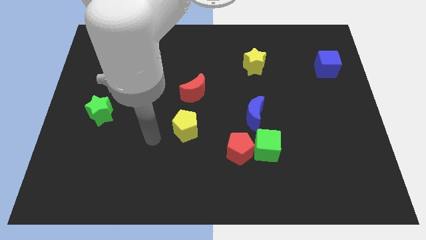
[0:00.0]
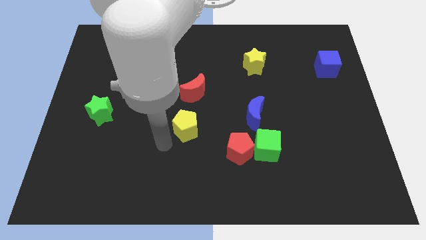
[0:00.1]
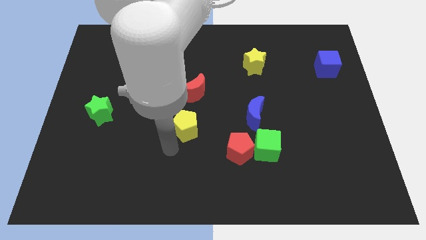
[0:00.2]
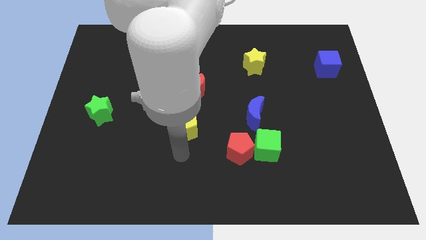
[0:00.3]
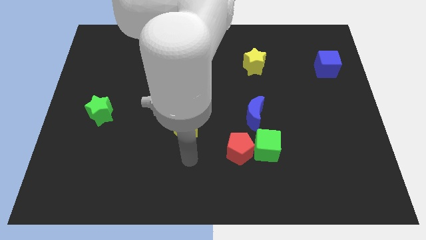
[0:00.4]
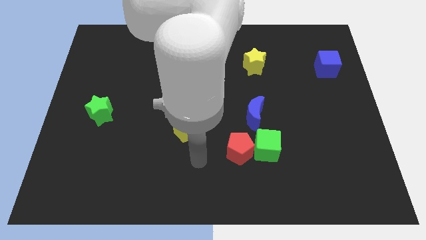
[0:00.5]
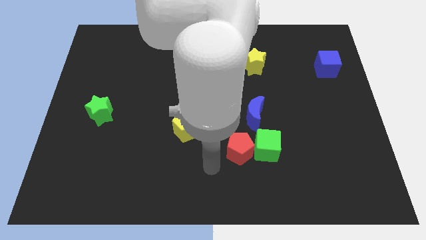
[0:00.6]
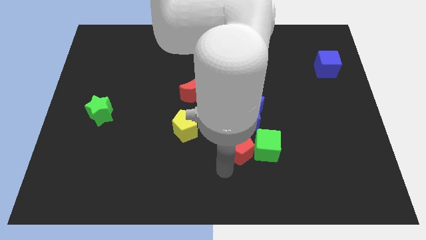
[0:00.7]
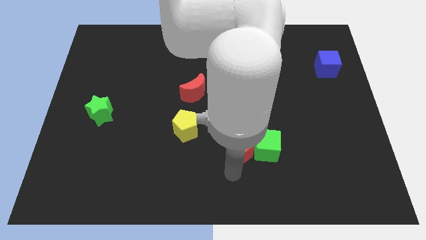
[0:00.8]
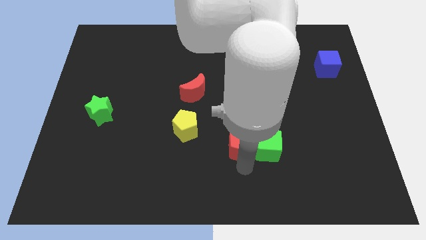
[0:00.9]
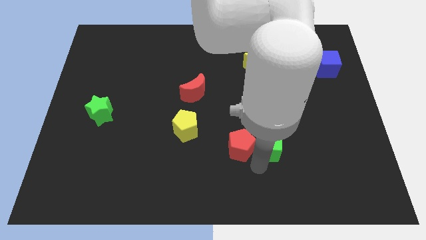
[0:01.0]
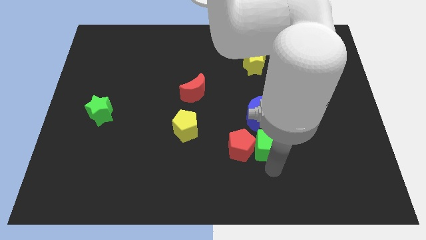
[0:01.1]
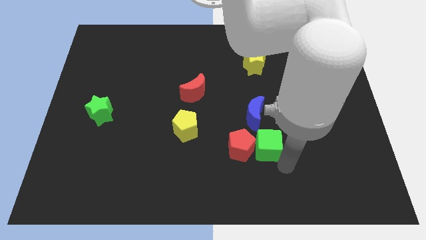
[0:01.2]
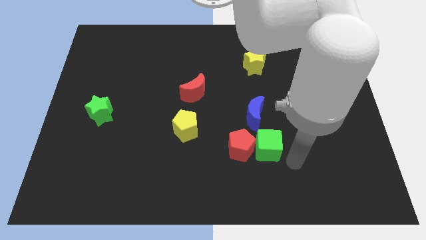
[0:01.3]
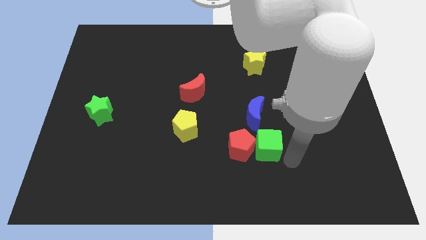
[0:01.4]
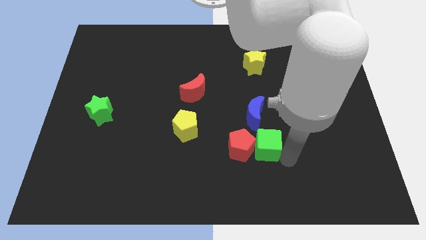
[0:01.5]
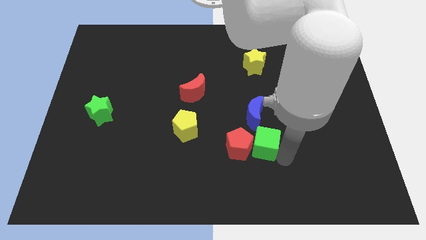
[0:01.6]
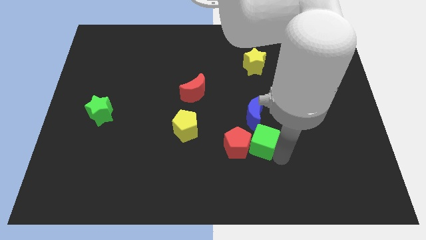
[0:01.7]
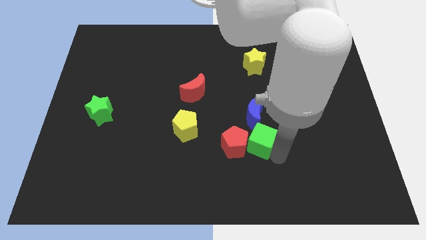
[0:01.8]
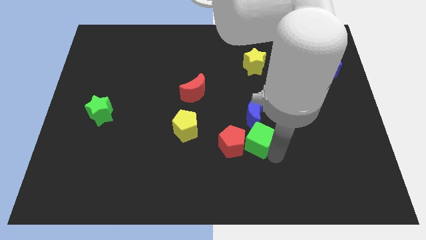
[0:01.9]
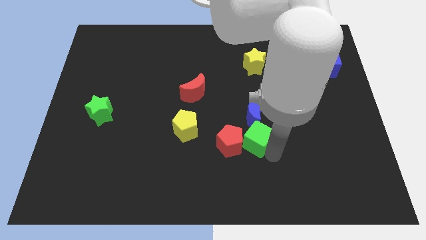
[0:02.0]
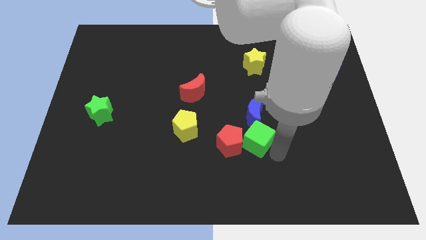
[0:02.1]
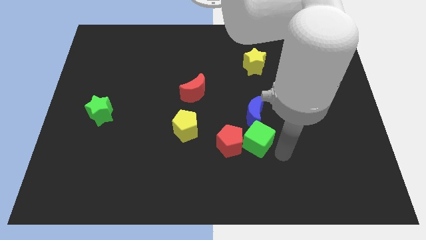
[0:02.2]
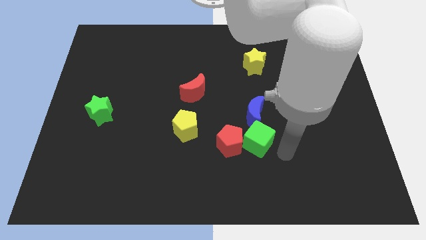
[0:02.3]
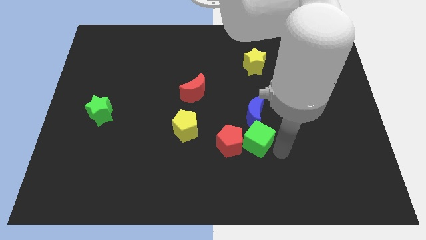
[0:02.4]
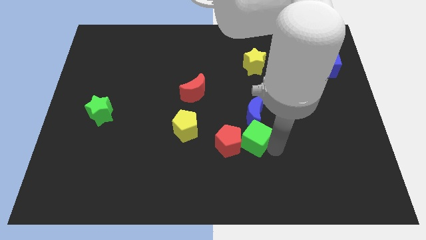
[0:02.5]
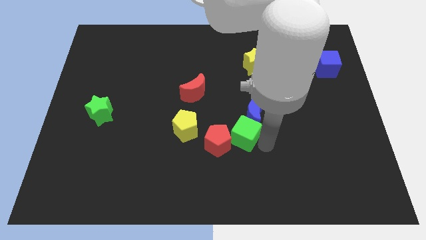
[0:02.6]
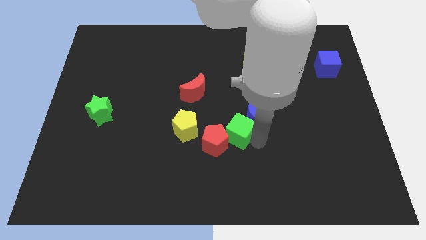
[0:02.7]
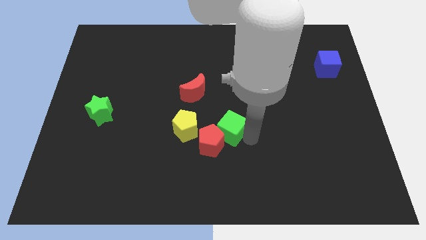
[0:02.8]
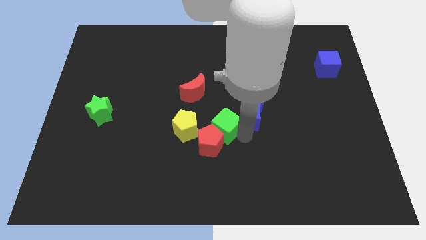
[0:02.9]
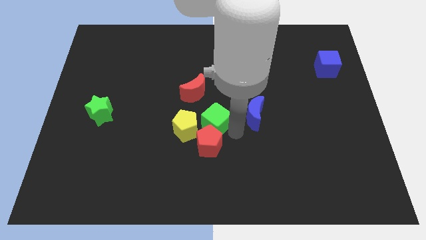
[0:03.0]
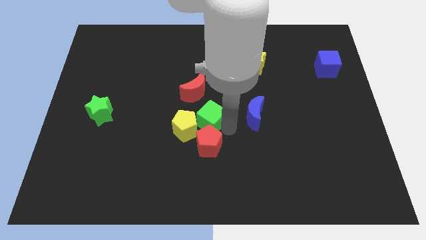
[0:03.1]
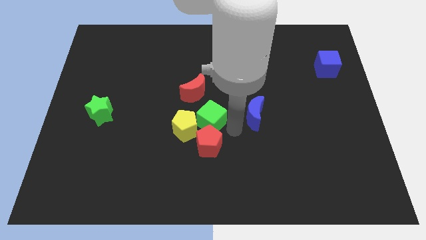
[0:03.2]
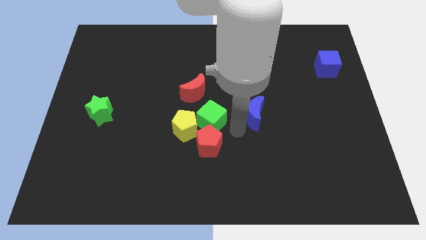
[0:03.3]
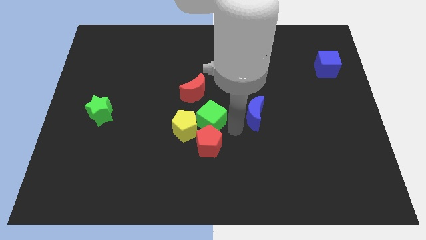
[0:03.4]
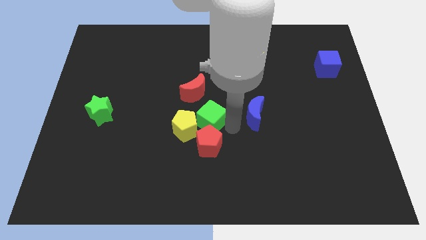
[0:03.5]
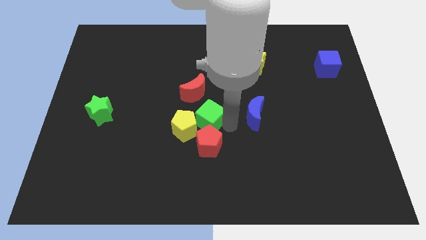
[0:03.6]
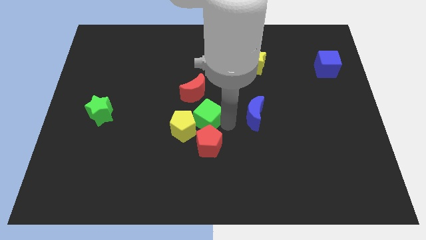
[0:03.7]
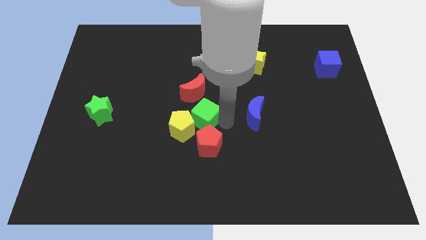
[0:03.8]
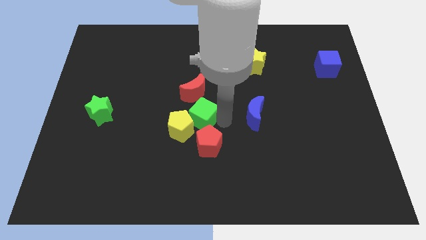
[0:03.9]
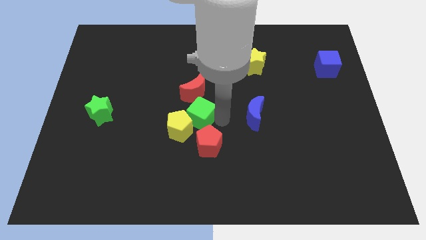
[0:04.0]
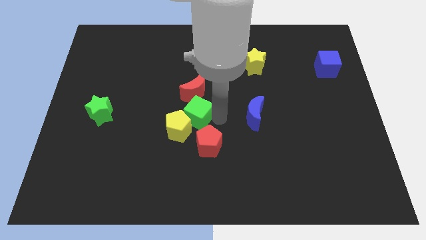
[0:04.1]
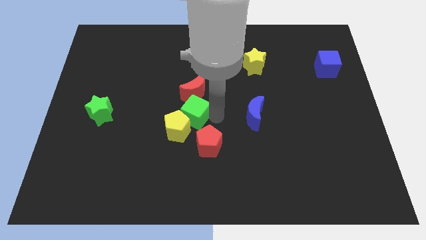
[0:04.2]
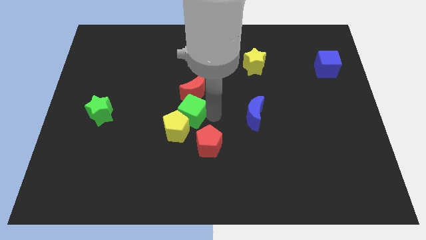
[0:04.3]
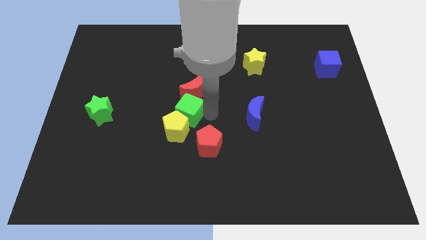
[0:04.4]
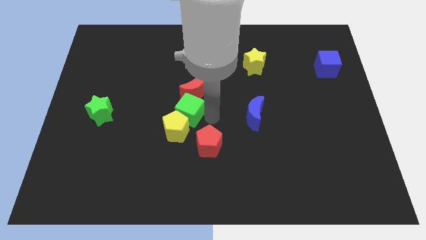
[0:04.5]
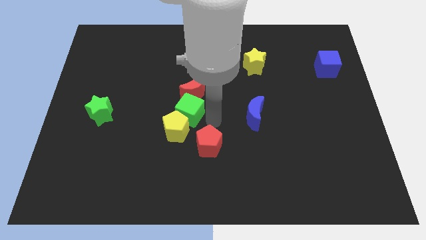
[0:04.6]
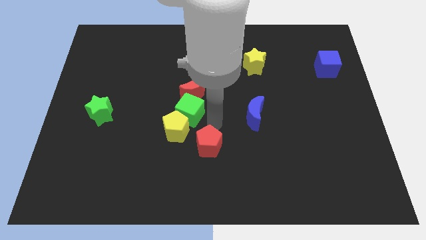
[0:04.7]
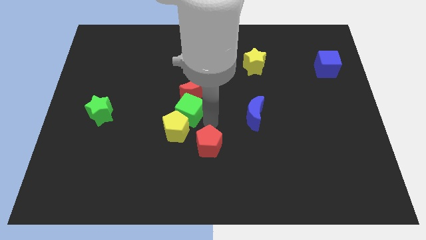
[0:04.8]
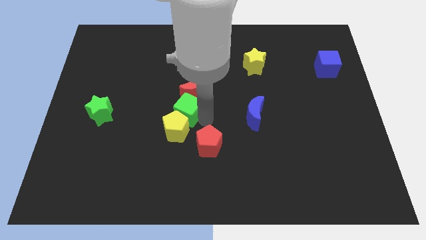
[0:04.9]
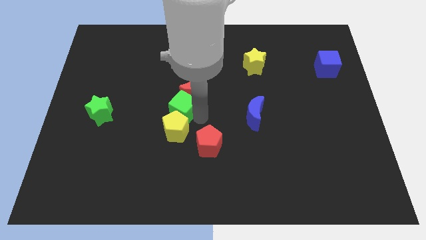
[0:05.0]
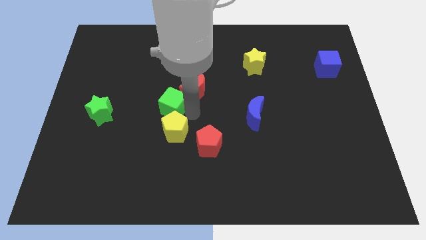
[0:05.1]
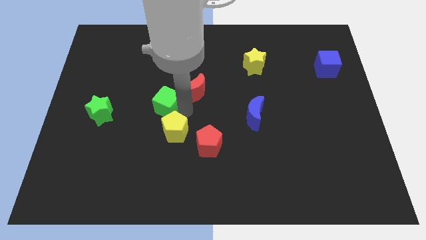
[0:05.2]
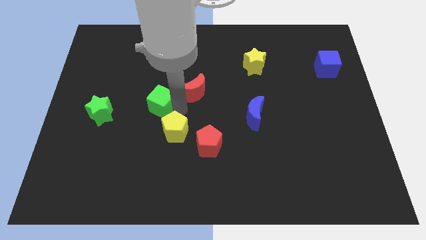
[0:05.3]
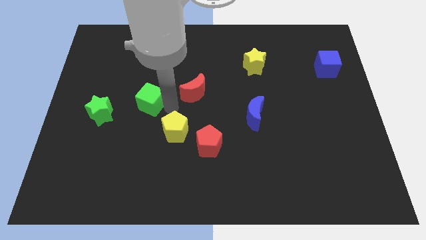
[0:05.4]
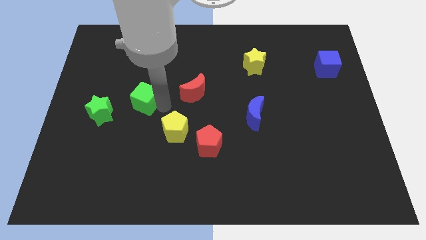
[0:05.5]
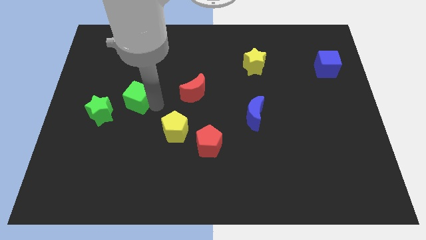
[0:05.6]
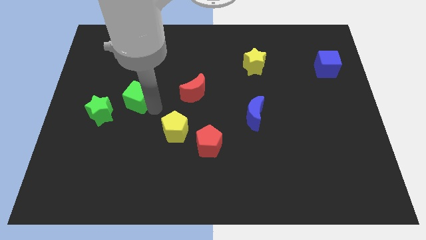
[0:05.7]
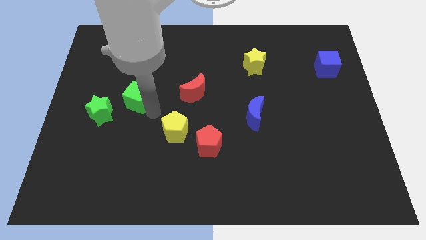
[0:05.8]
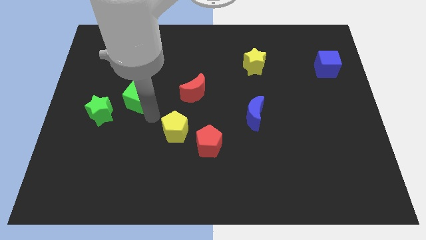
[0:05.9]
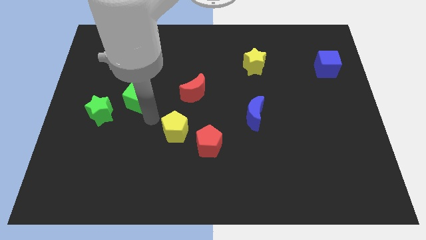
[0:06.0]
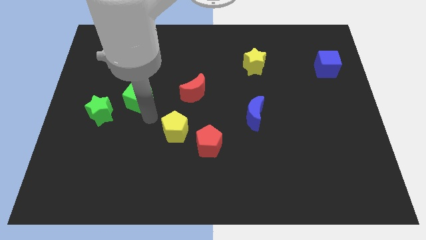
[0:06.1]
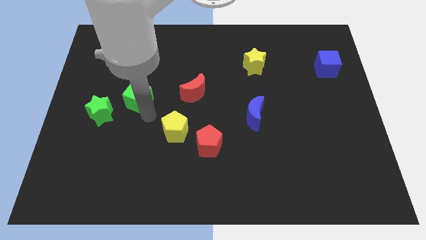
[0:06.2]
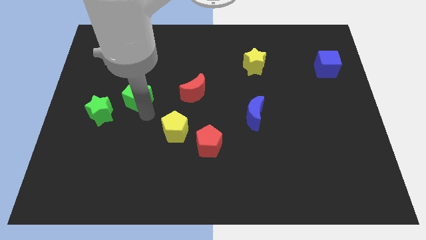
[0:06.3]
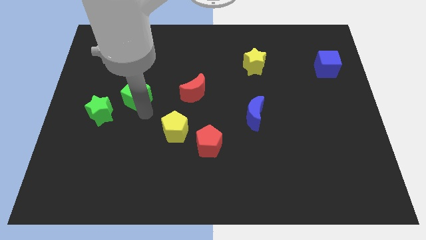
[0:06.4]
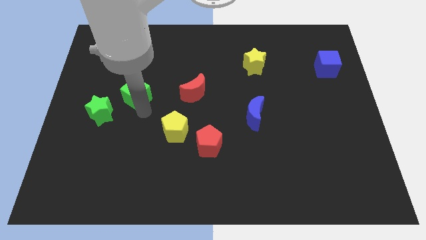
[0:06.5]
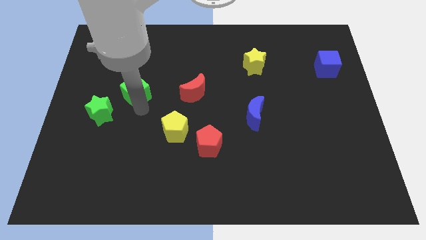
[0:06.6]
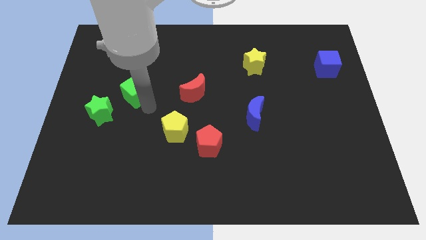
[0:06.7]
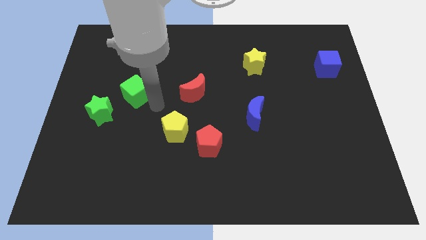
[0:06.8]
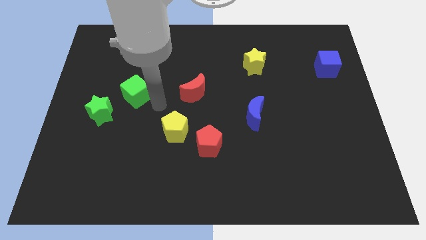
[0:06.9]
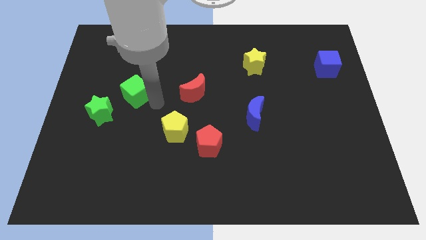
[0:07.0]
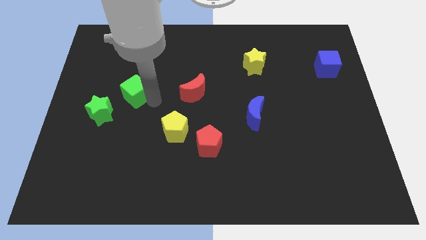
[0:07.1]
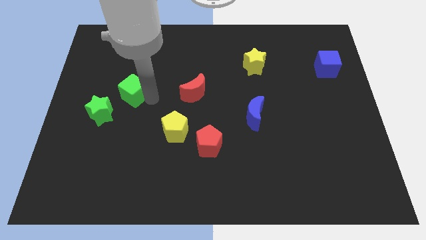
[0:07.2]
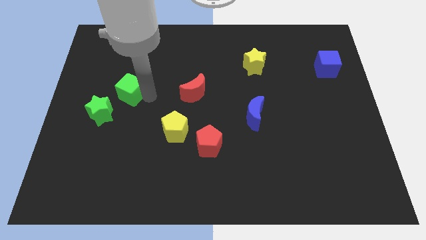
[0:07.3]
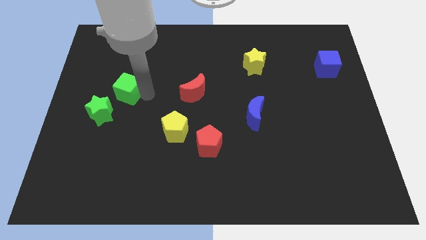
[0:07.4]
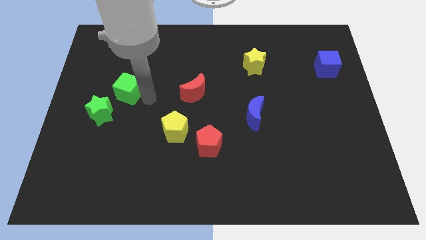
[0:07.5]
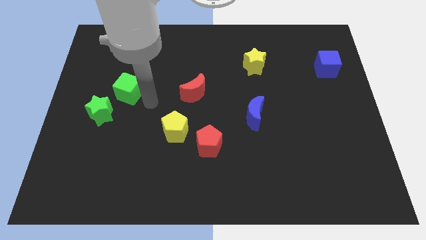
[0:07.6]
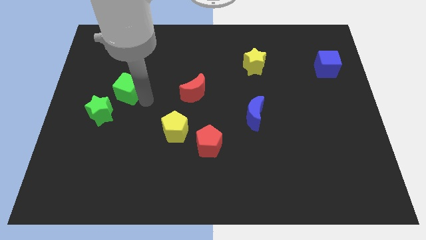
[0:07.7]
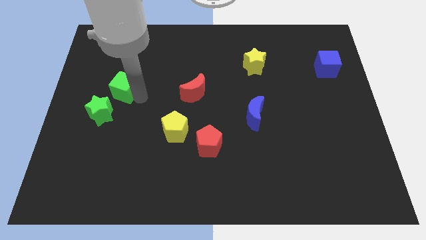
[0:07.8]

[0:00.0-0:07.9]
move the green cube above the green star
